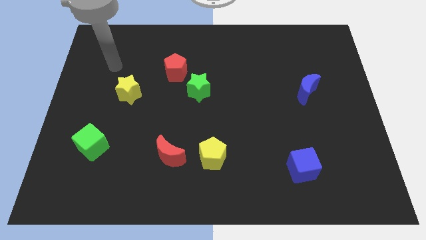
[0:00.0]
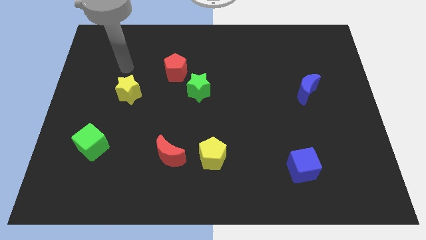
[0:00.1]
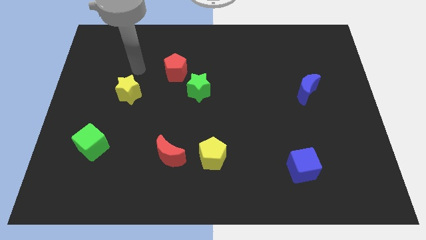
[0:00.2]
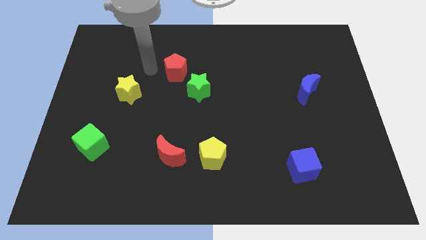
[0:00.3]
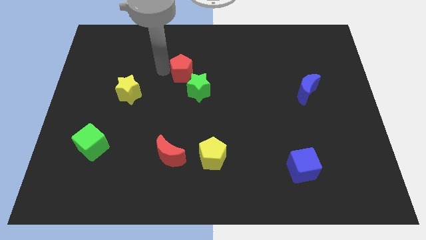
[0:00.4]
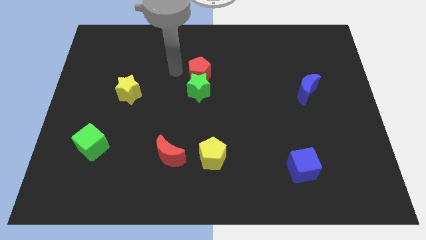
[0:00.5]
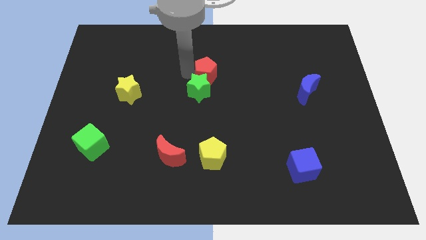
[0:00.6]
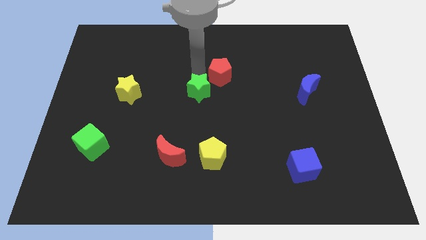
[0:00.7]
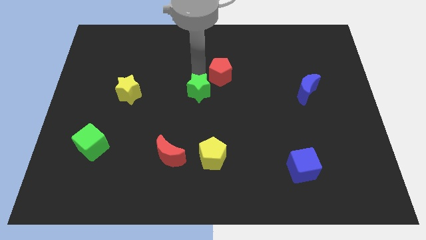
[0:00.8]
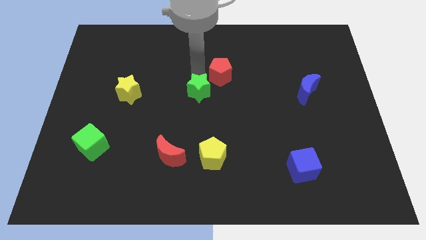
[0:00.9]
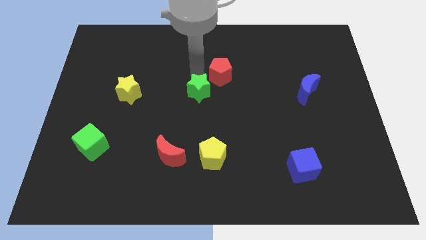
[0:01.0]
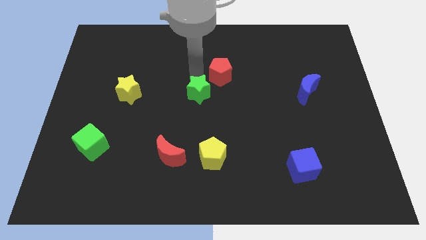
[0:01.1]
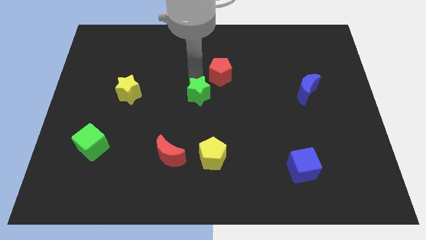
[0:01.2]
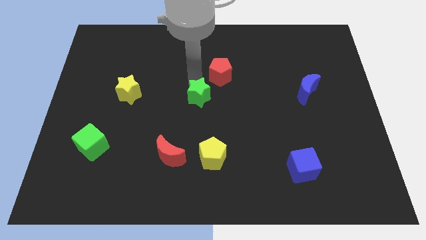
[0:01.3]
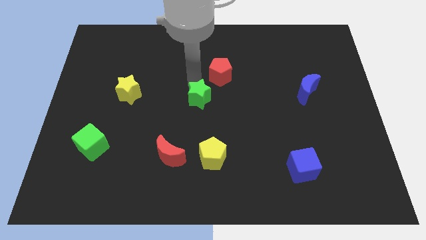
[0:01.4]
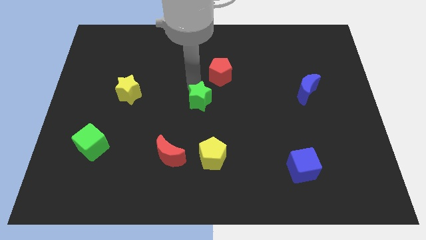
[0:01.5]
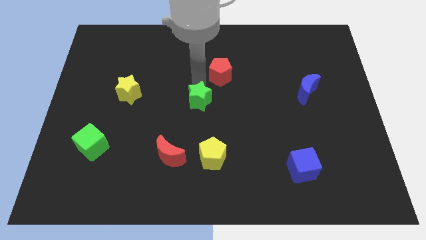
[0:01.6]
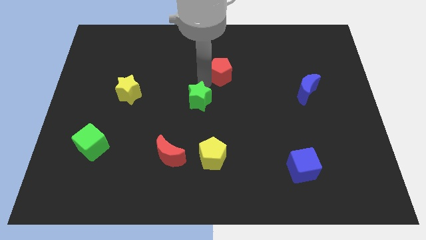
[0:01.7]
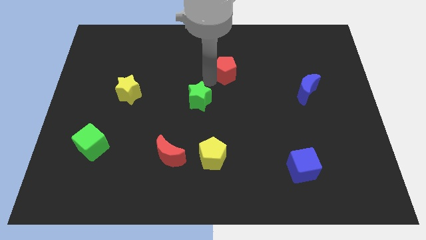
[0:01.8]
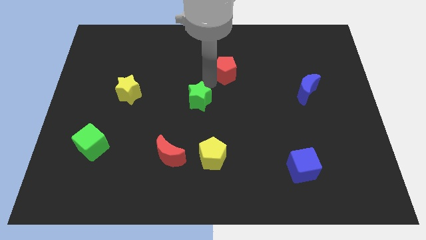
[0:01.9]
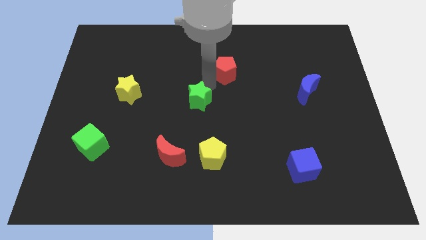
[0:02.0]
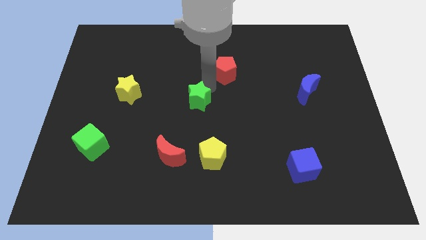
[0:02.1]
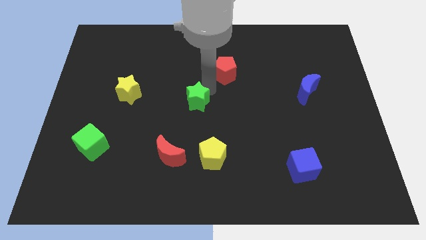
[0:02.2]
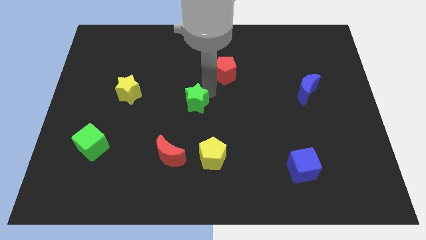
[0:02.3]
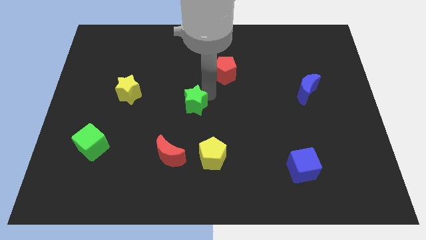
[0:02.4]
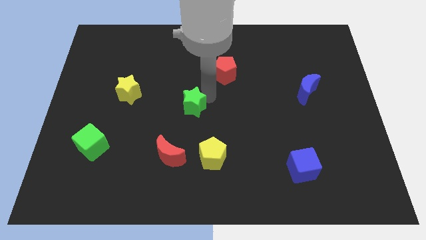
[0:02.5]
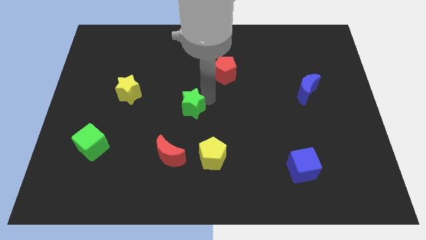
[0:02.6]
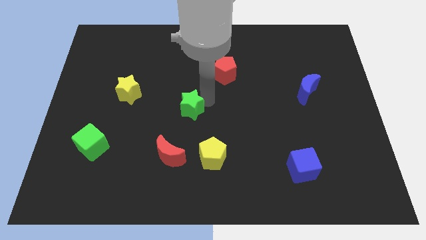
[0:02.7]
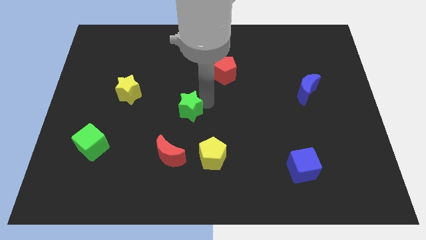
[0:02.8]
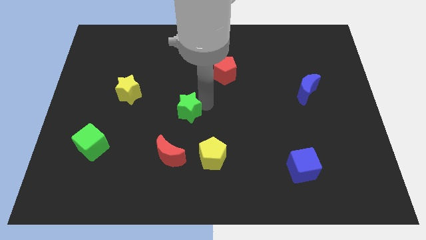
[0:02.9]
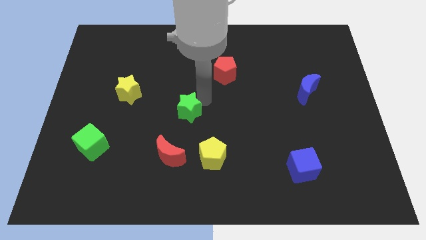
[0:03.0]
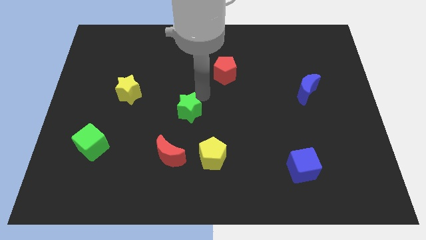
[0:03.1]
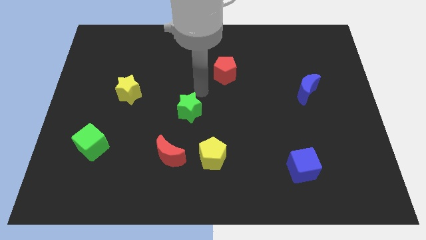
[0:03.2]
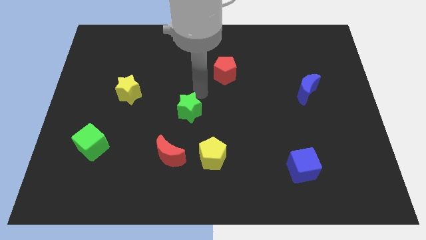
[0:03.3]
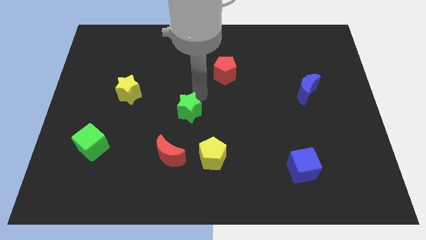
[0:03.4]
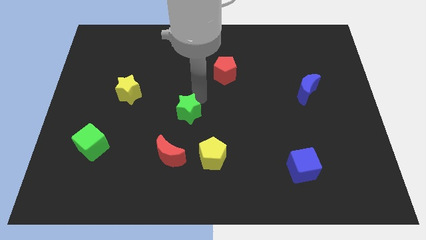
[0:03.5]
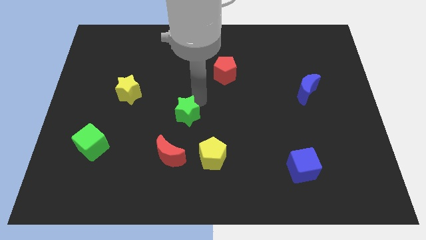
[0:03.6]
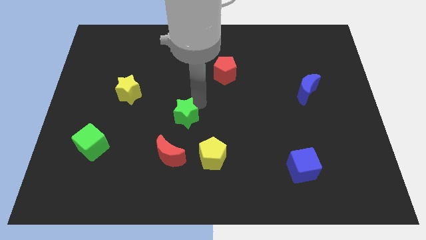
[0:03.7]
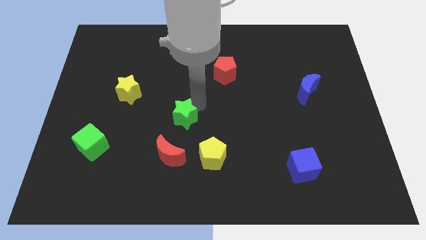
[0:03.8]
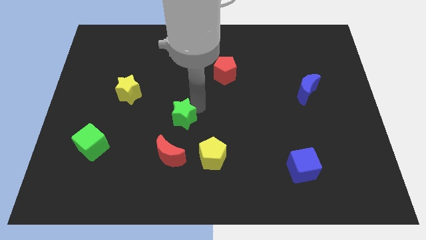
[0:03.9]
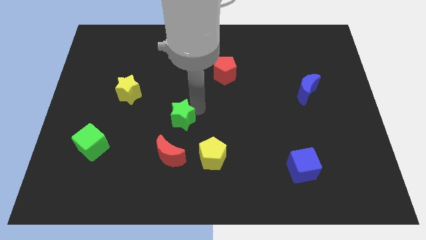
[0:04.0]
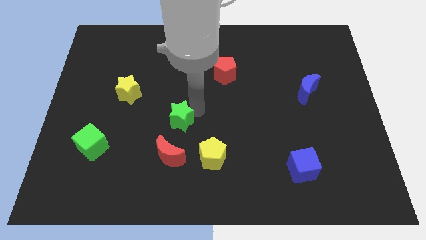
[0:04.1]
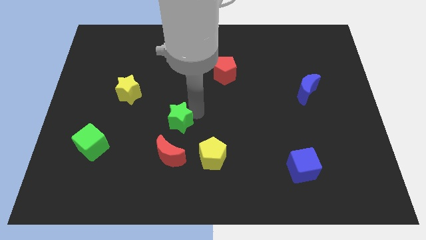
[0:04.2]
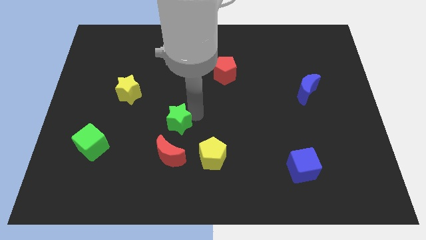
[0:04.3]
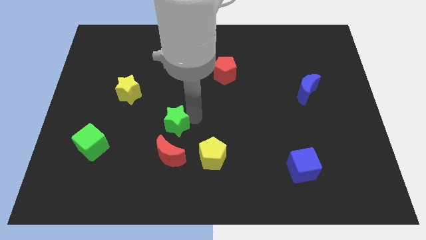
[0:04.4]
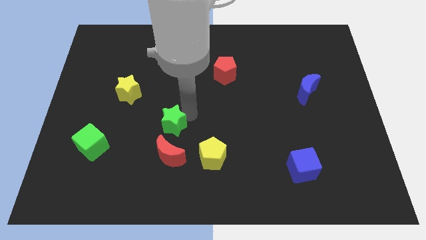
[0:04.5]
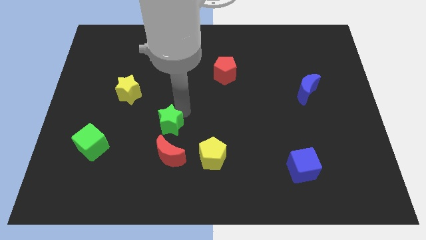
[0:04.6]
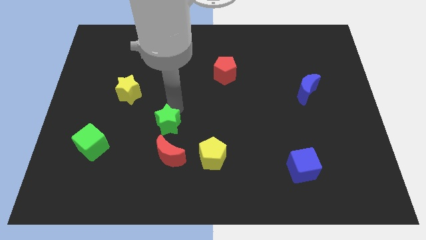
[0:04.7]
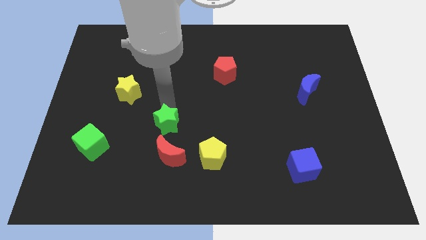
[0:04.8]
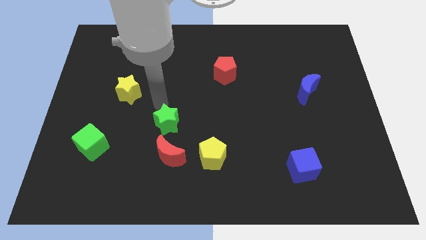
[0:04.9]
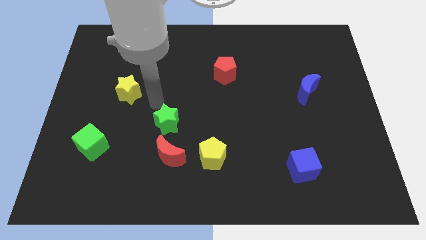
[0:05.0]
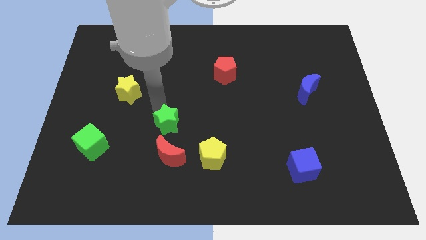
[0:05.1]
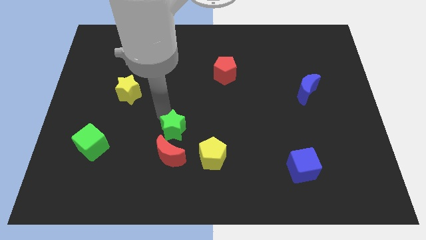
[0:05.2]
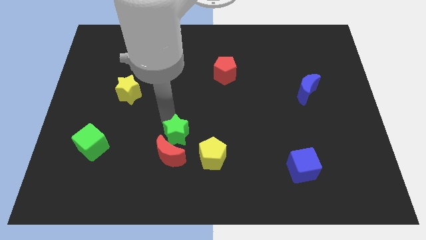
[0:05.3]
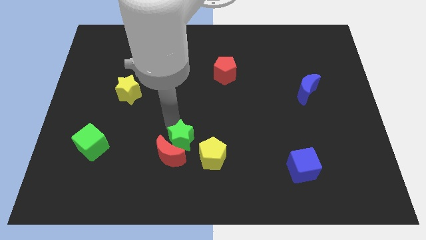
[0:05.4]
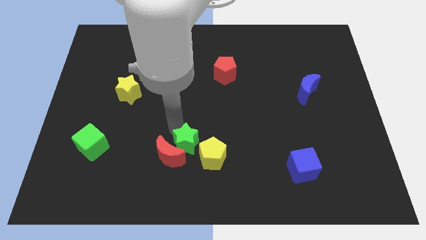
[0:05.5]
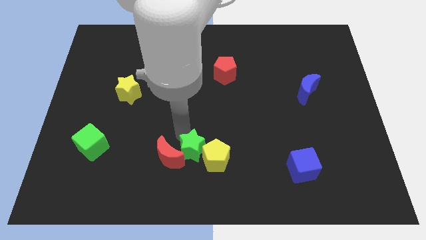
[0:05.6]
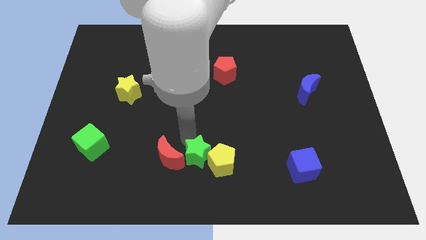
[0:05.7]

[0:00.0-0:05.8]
move the green star to the bottom side
